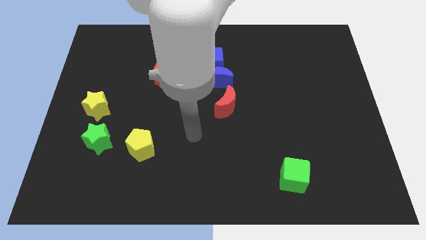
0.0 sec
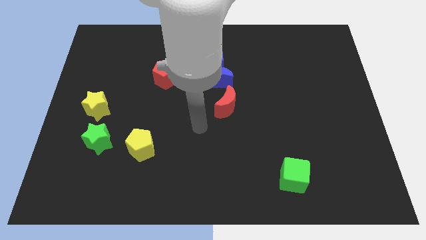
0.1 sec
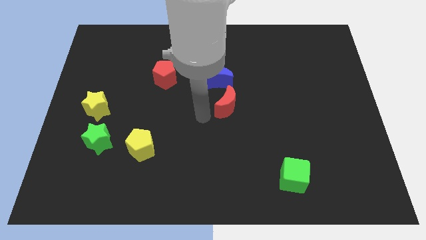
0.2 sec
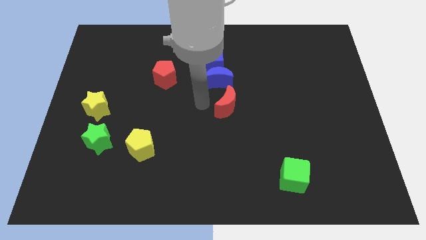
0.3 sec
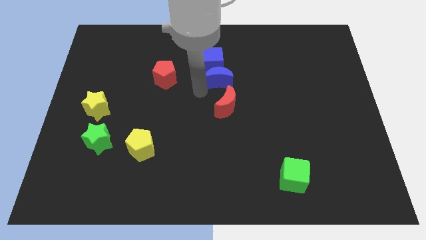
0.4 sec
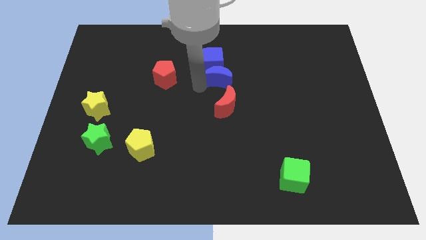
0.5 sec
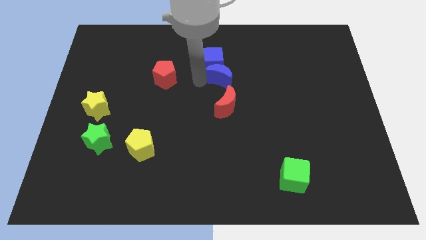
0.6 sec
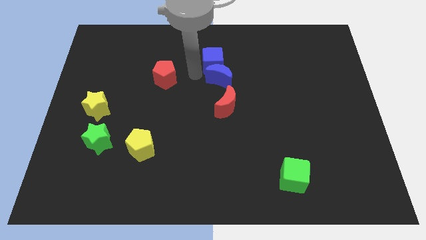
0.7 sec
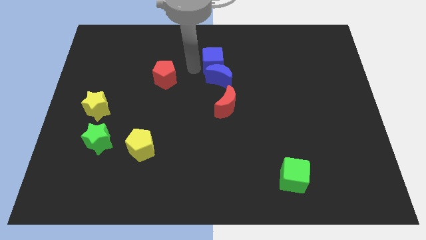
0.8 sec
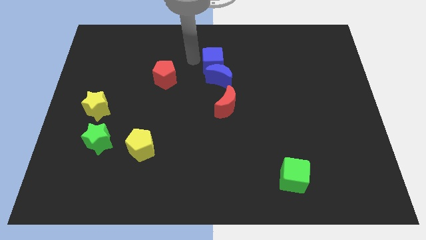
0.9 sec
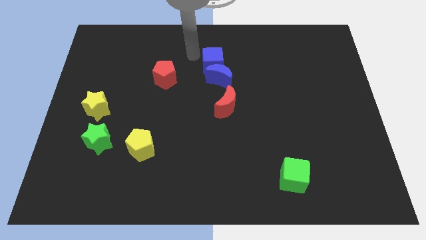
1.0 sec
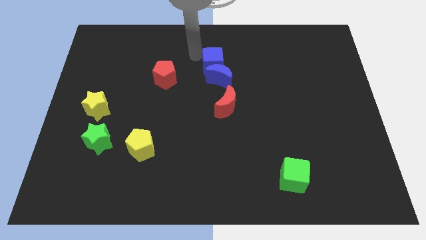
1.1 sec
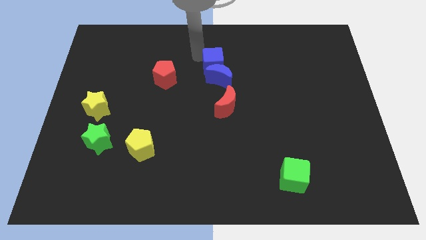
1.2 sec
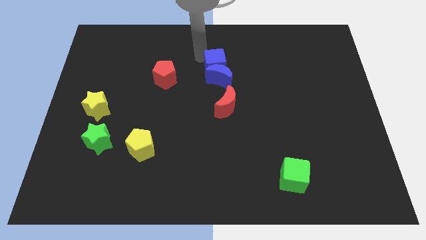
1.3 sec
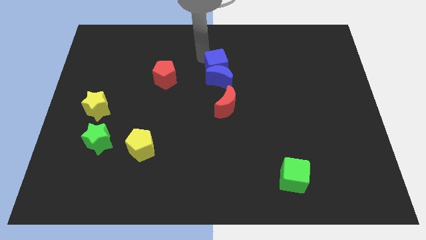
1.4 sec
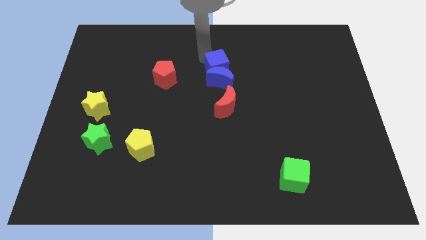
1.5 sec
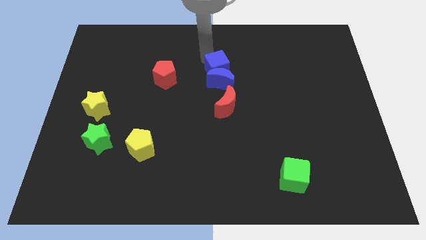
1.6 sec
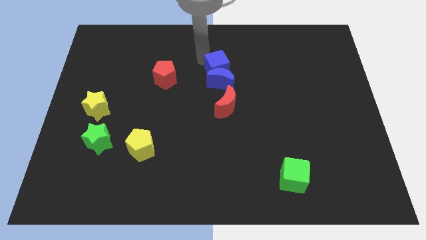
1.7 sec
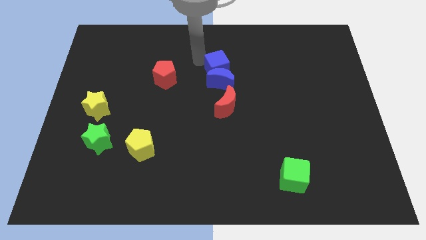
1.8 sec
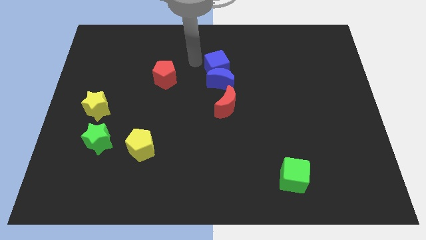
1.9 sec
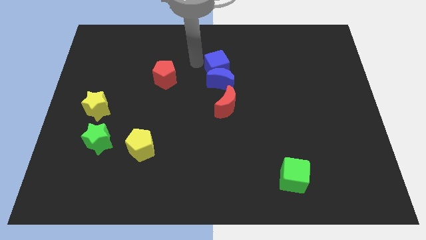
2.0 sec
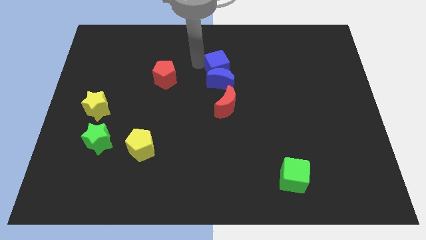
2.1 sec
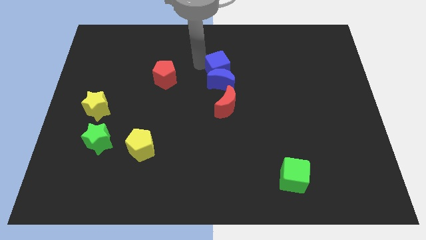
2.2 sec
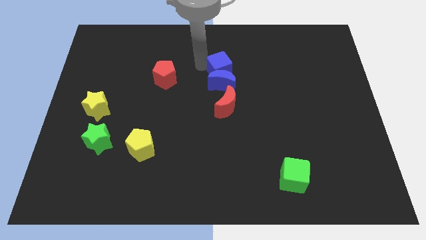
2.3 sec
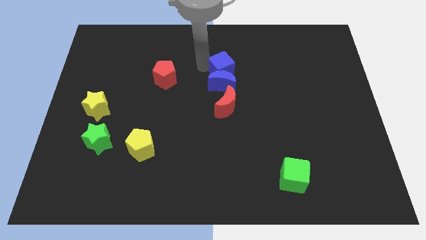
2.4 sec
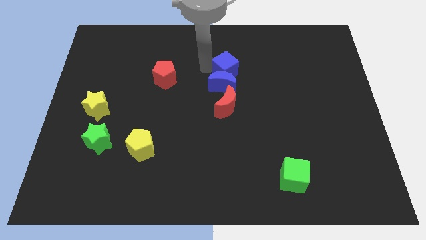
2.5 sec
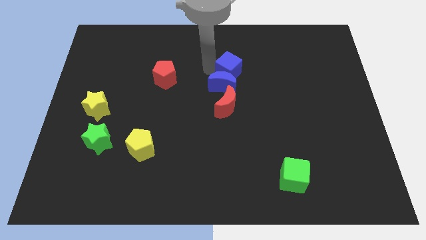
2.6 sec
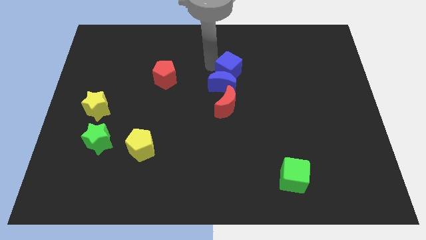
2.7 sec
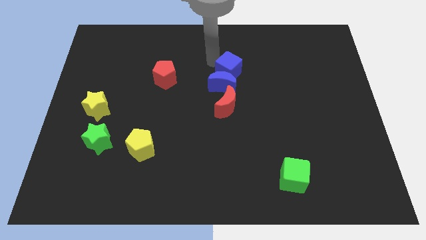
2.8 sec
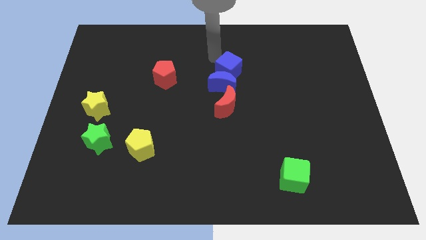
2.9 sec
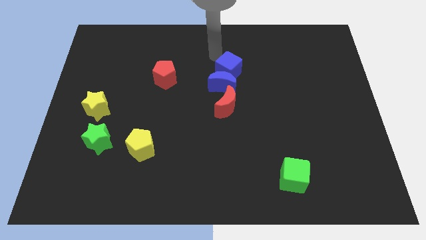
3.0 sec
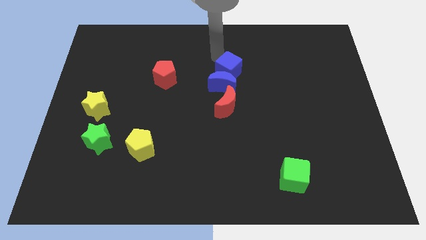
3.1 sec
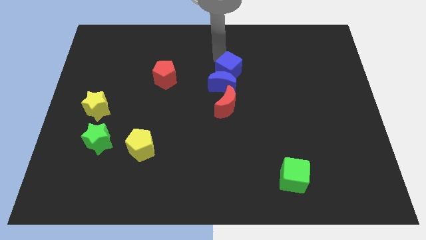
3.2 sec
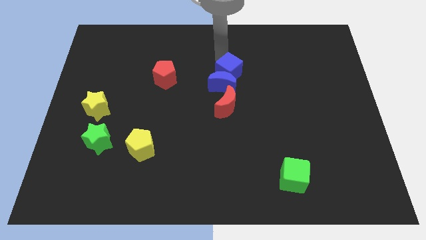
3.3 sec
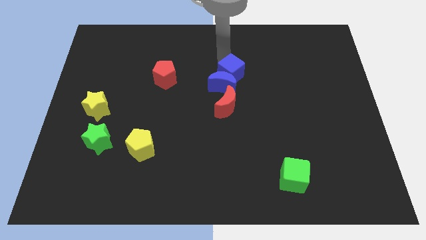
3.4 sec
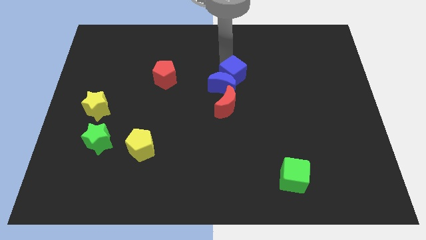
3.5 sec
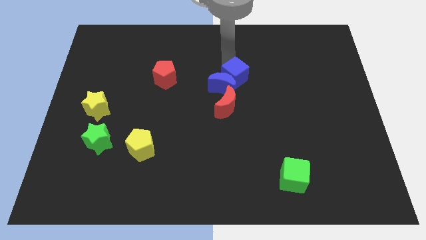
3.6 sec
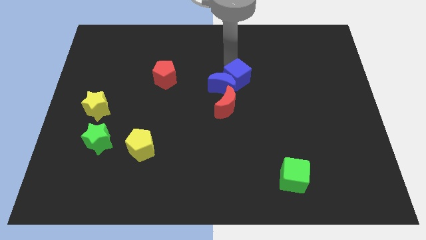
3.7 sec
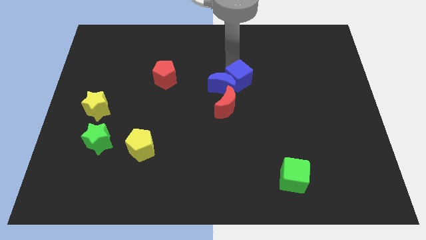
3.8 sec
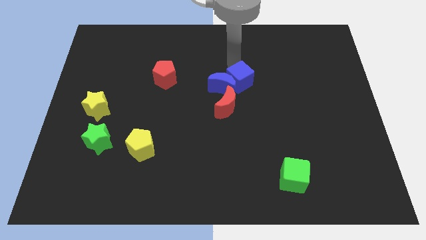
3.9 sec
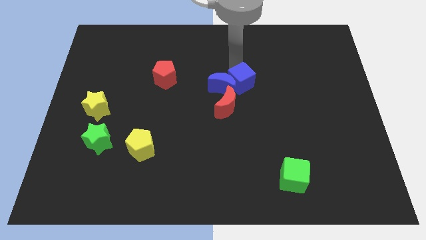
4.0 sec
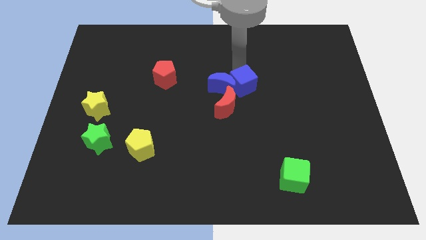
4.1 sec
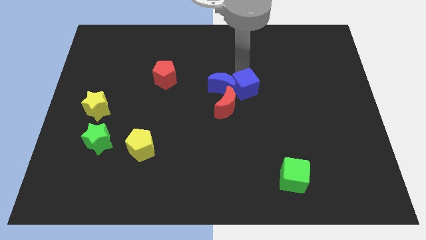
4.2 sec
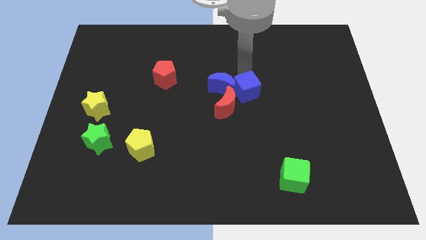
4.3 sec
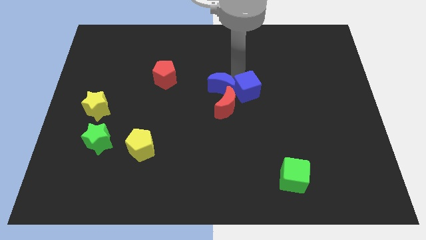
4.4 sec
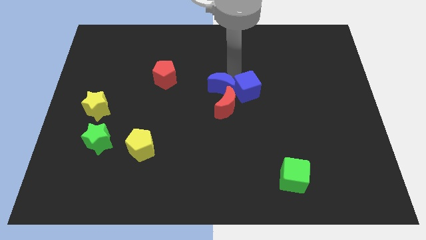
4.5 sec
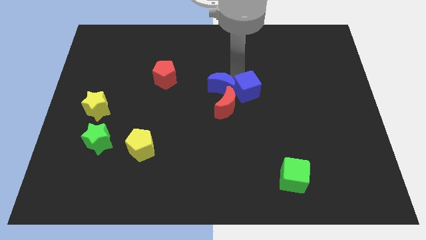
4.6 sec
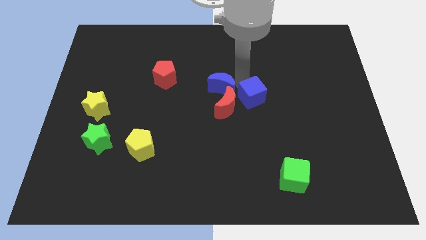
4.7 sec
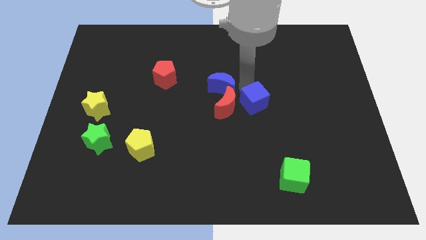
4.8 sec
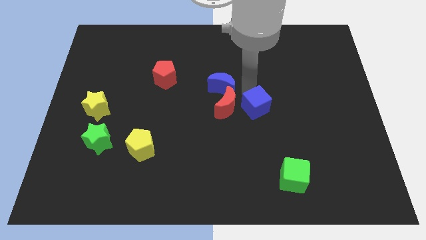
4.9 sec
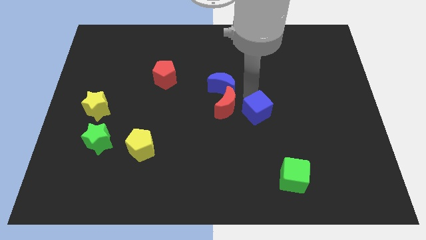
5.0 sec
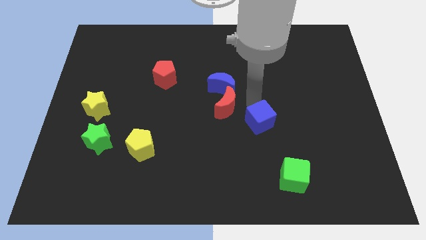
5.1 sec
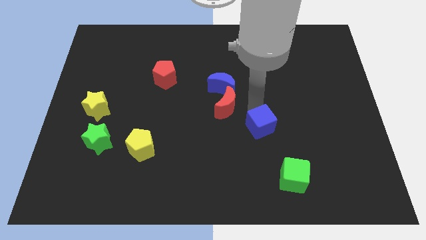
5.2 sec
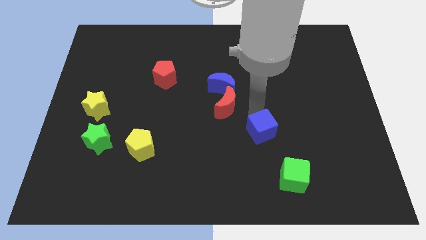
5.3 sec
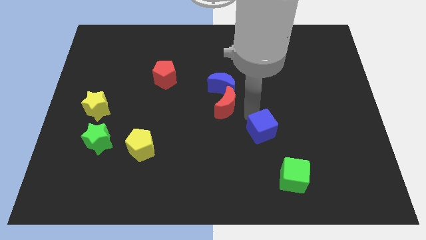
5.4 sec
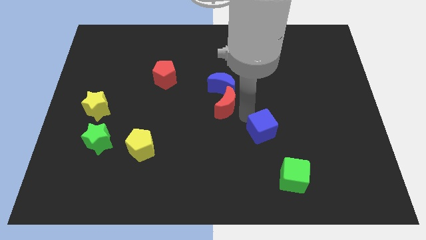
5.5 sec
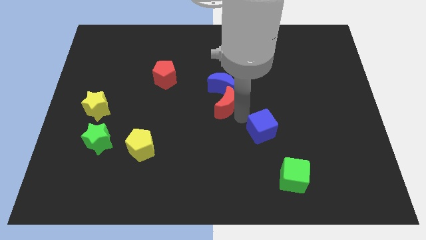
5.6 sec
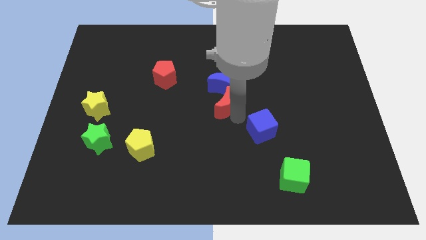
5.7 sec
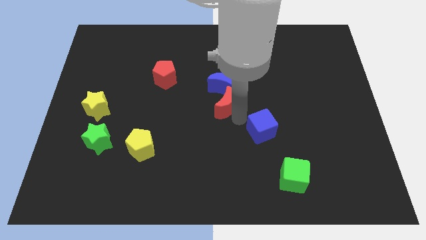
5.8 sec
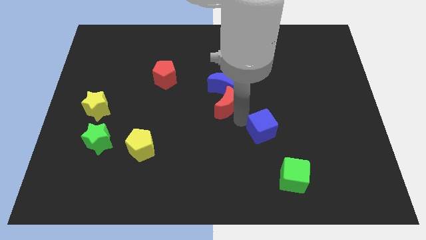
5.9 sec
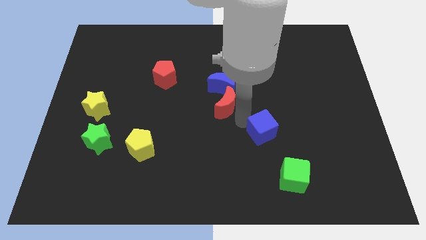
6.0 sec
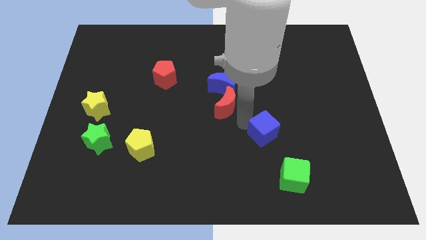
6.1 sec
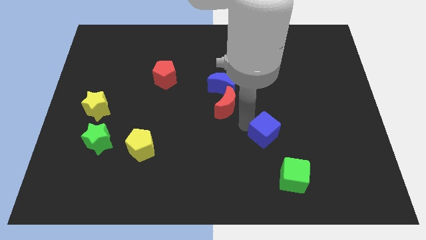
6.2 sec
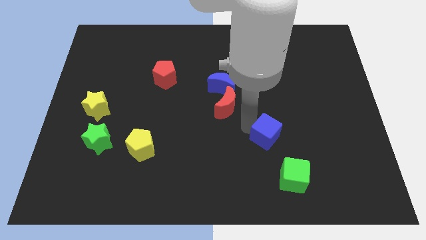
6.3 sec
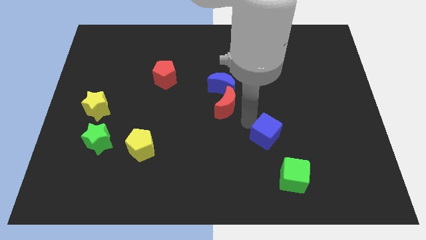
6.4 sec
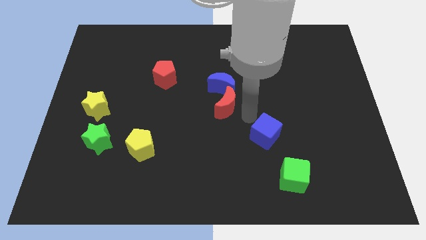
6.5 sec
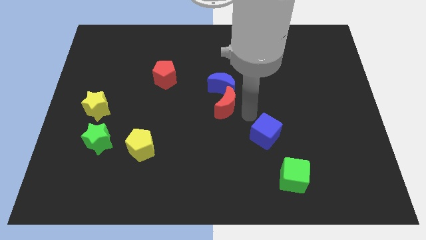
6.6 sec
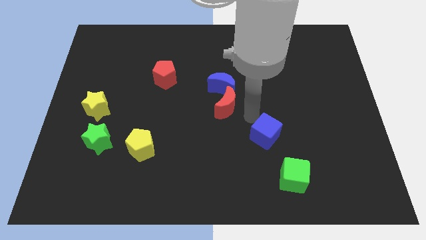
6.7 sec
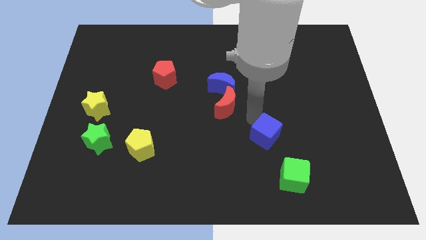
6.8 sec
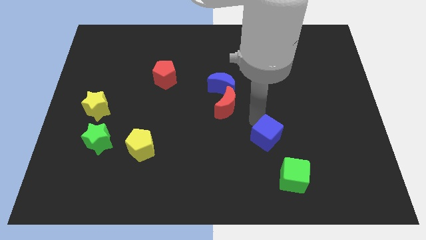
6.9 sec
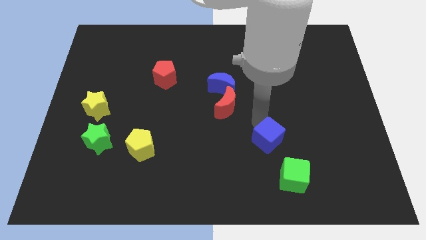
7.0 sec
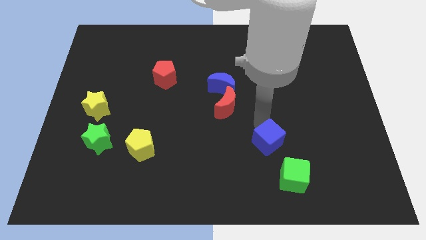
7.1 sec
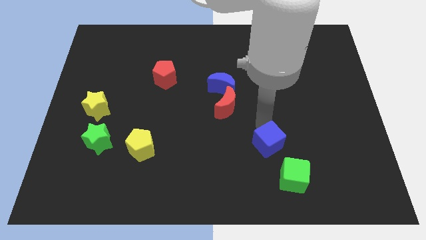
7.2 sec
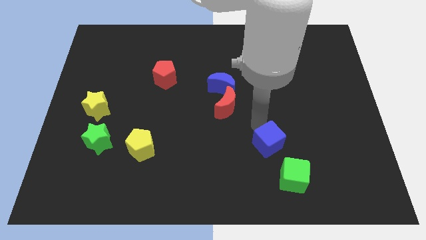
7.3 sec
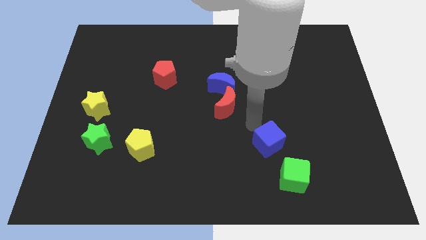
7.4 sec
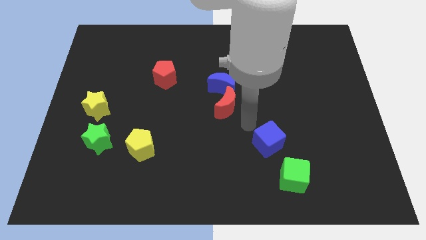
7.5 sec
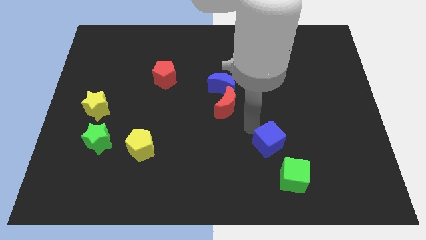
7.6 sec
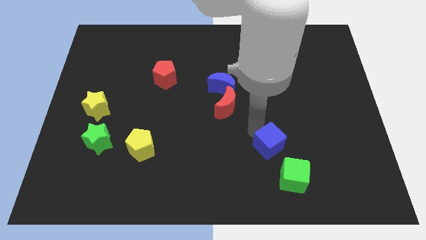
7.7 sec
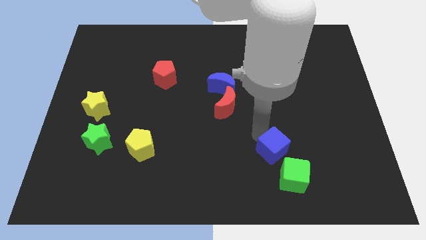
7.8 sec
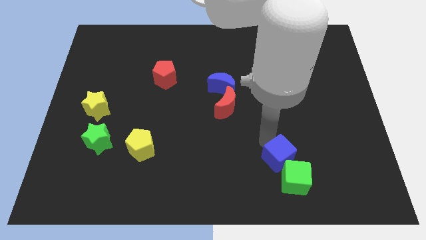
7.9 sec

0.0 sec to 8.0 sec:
slide the blue cube close to the green cube
